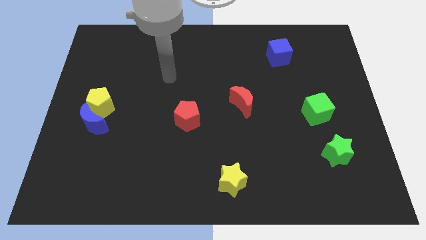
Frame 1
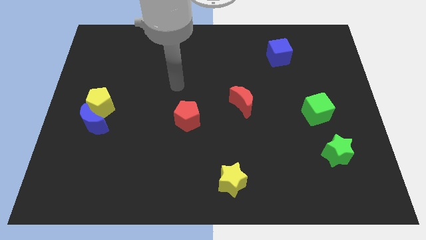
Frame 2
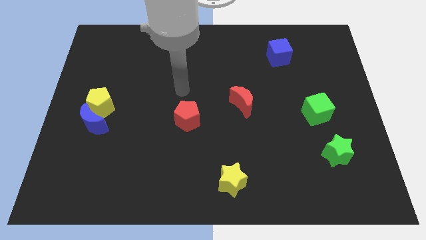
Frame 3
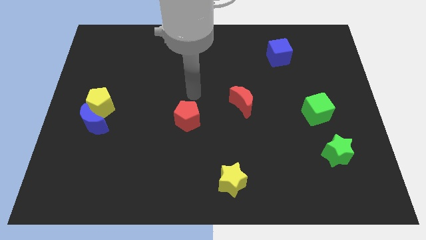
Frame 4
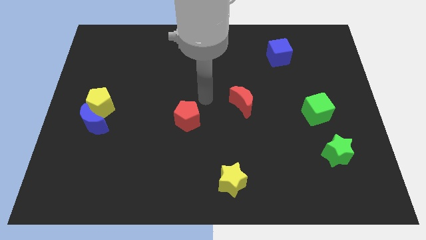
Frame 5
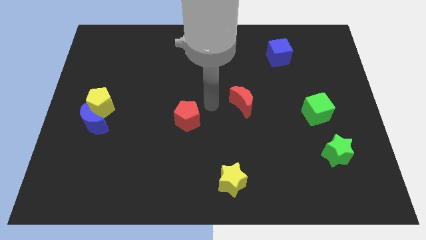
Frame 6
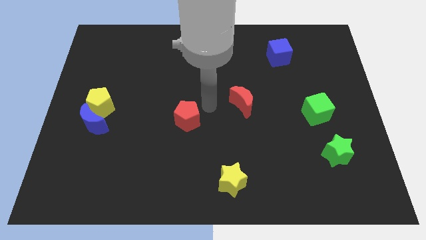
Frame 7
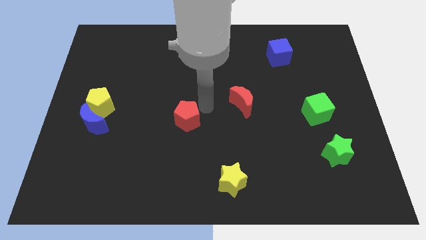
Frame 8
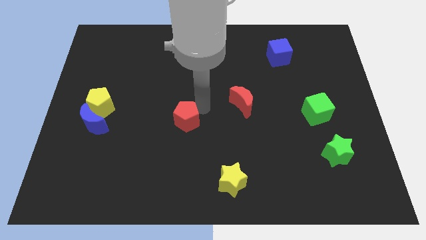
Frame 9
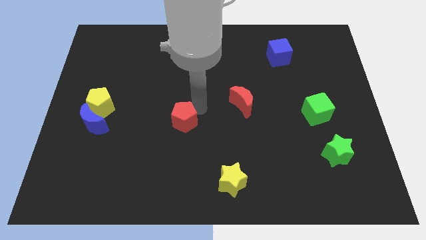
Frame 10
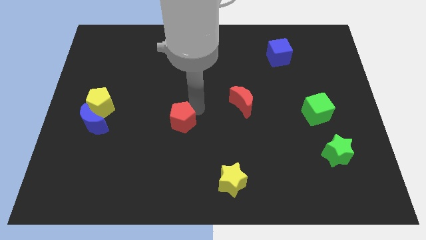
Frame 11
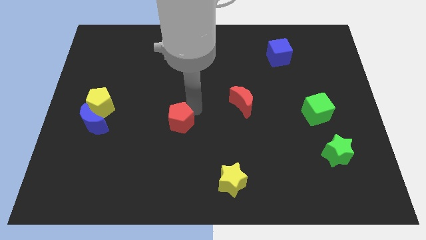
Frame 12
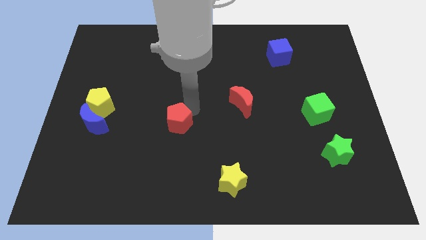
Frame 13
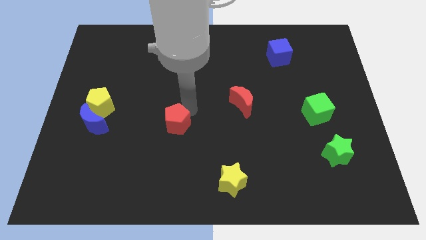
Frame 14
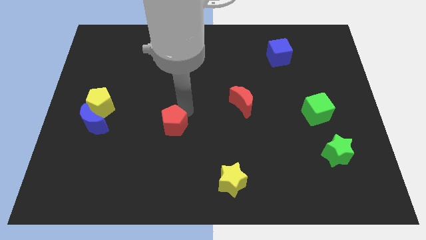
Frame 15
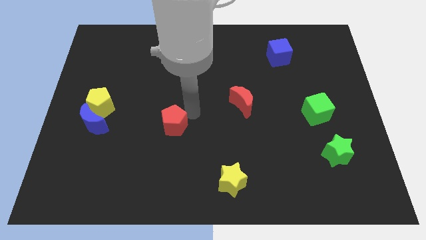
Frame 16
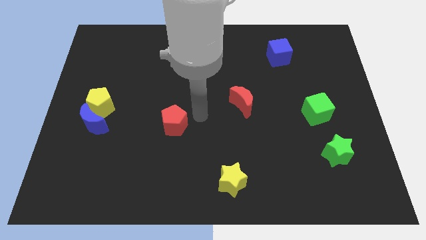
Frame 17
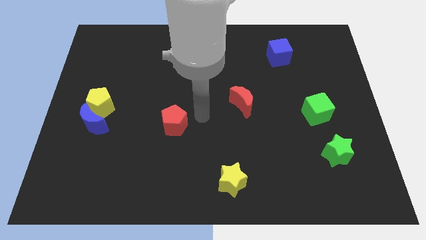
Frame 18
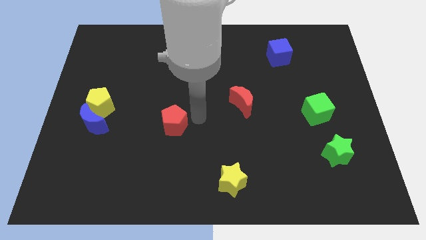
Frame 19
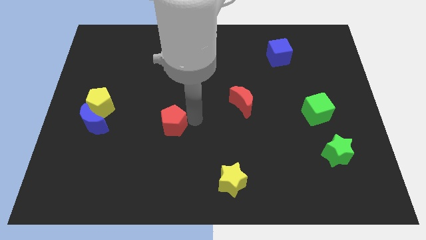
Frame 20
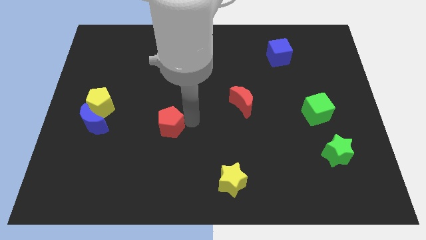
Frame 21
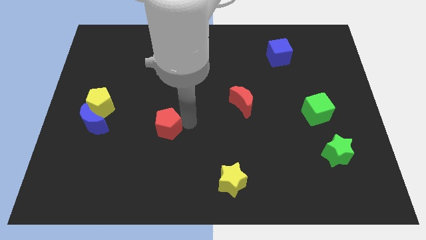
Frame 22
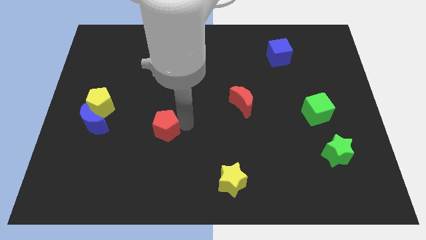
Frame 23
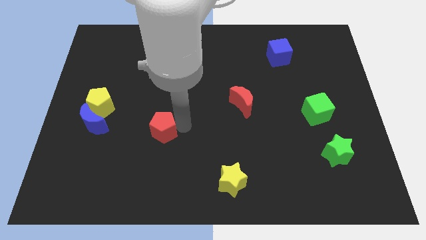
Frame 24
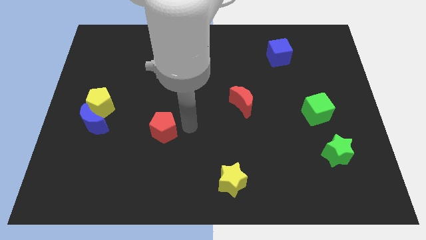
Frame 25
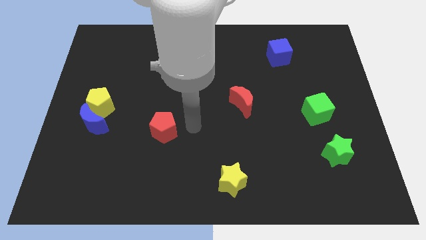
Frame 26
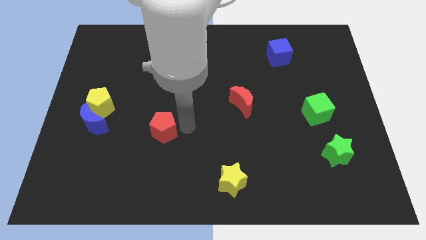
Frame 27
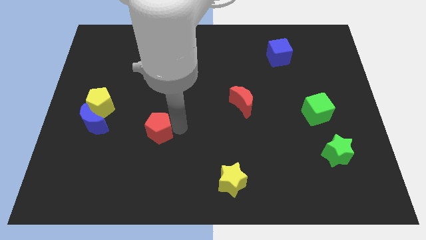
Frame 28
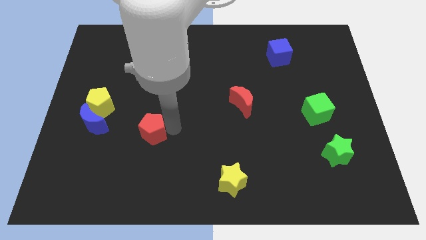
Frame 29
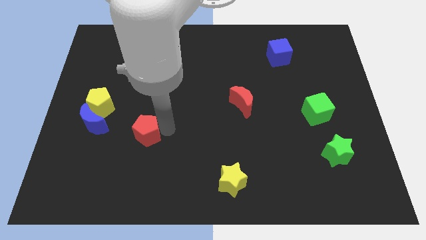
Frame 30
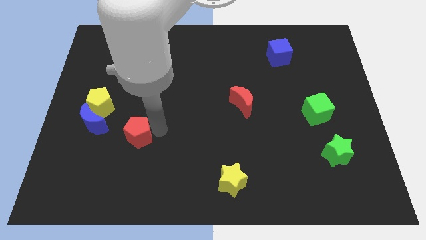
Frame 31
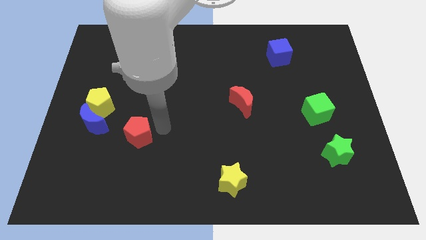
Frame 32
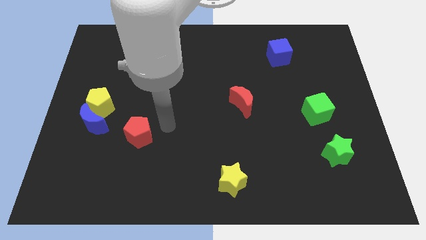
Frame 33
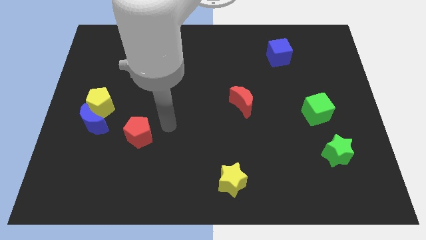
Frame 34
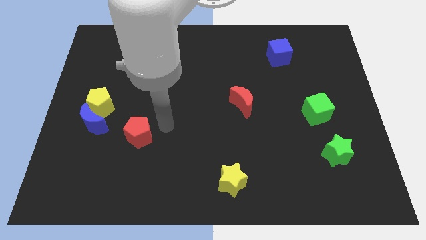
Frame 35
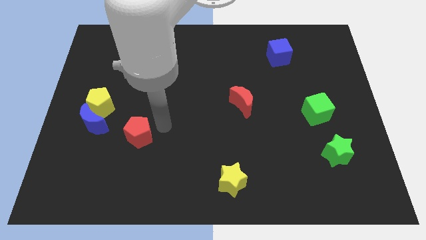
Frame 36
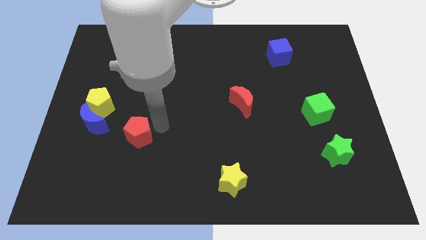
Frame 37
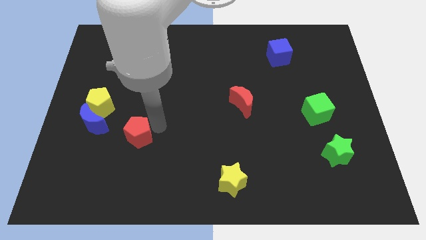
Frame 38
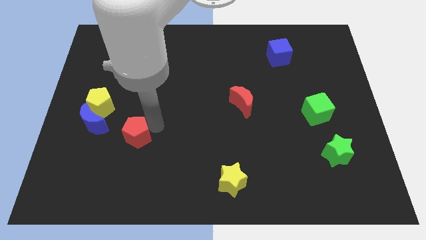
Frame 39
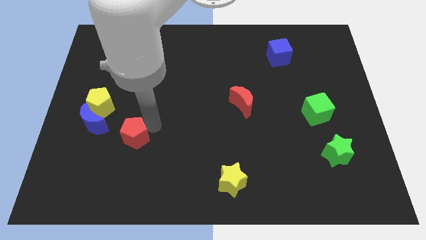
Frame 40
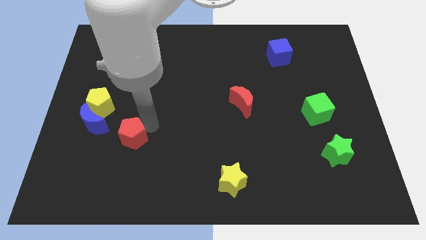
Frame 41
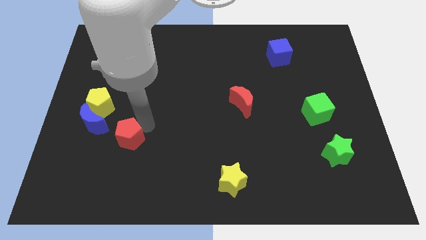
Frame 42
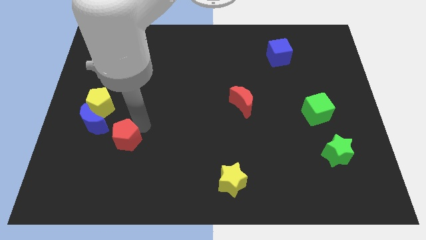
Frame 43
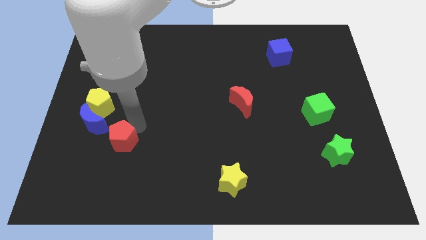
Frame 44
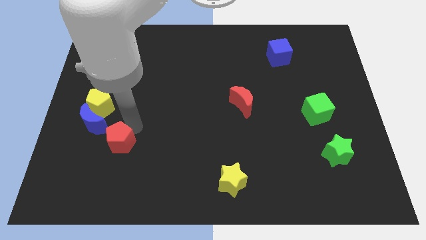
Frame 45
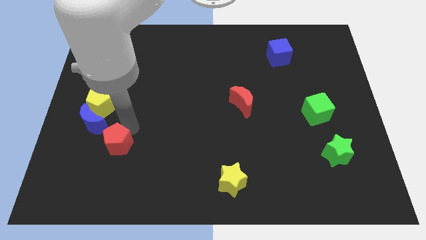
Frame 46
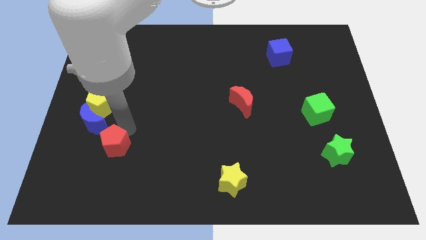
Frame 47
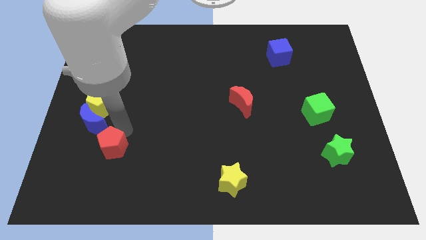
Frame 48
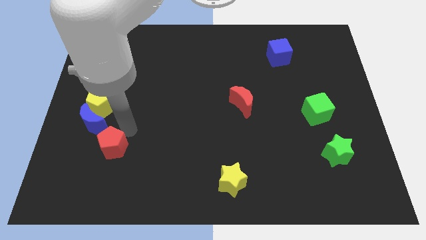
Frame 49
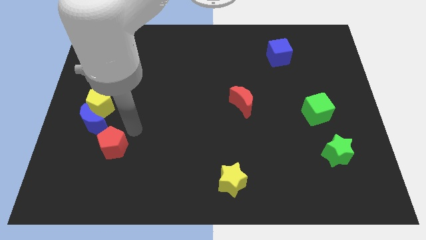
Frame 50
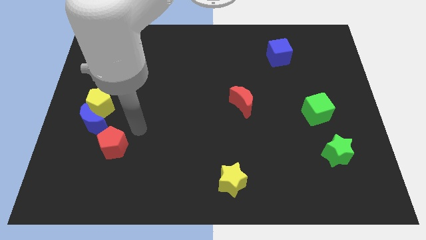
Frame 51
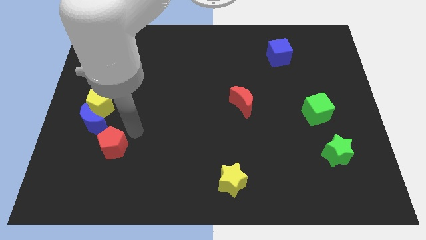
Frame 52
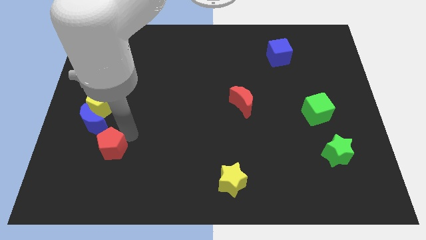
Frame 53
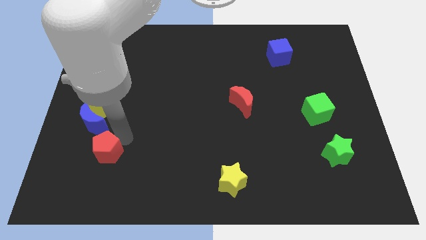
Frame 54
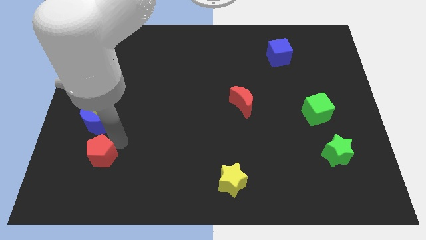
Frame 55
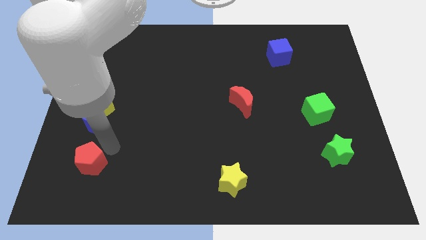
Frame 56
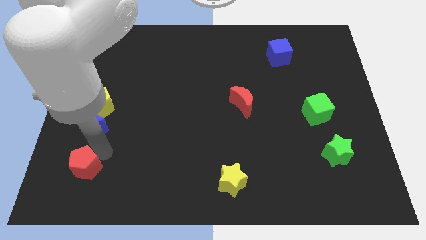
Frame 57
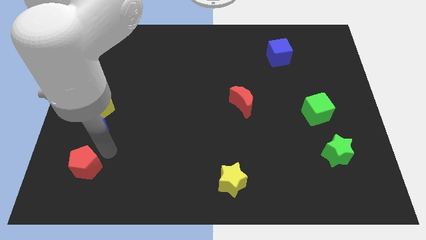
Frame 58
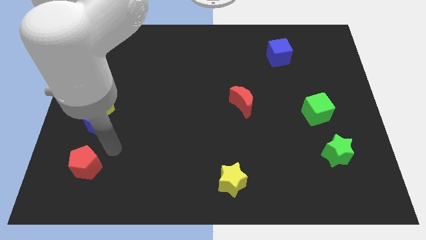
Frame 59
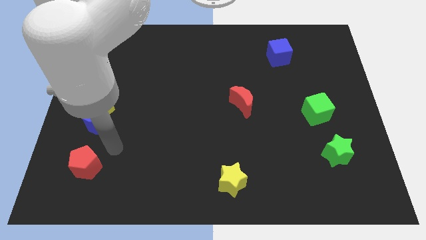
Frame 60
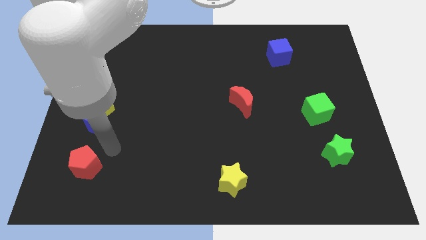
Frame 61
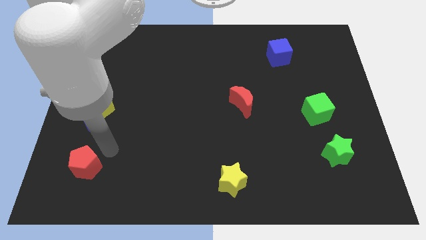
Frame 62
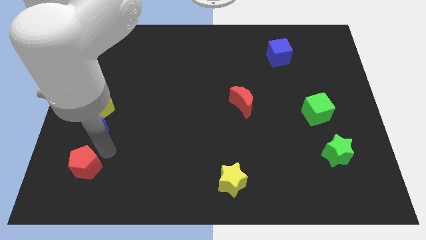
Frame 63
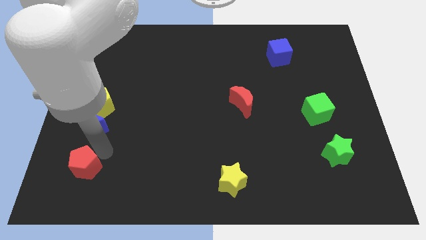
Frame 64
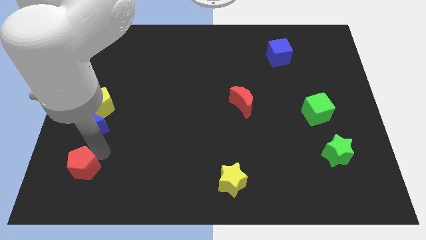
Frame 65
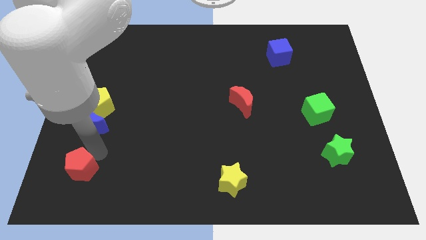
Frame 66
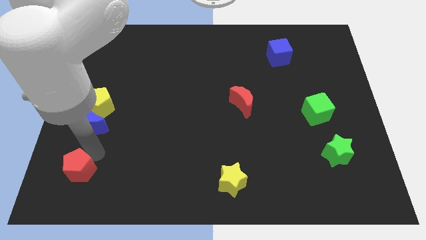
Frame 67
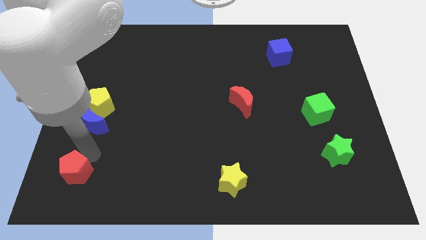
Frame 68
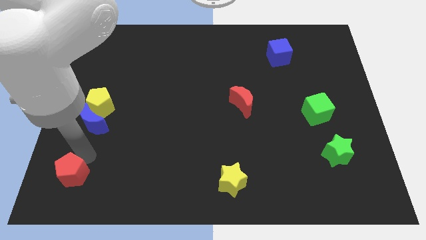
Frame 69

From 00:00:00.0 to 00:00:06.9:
push the red pentagon to the lower left corner
